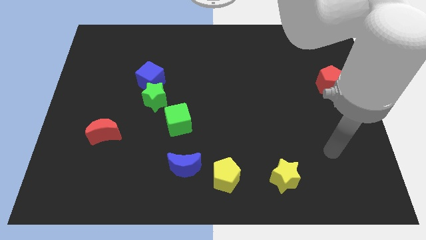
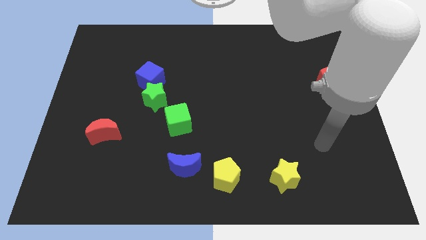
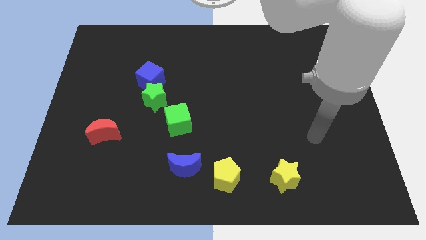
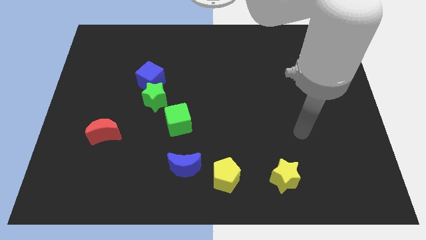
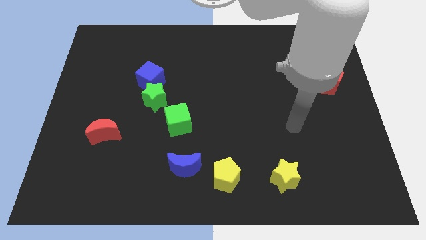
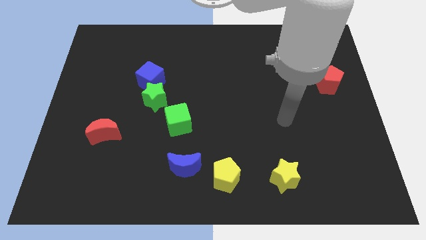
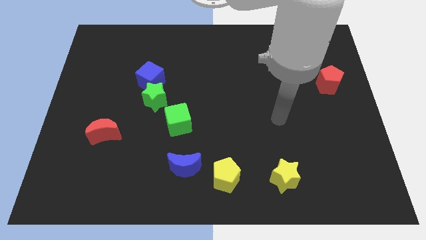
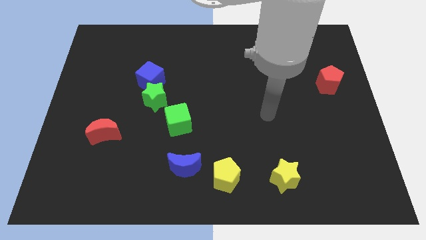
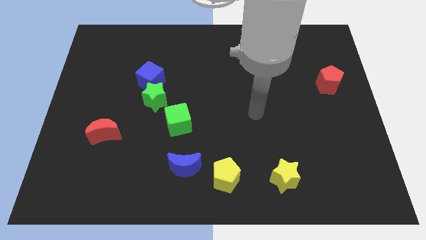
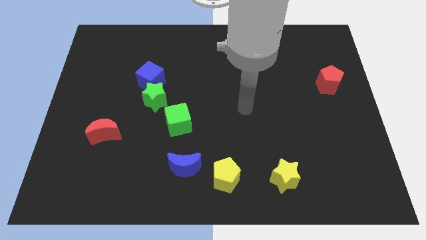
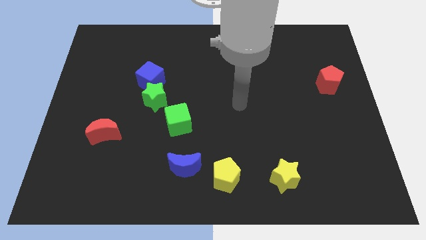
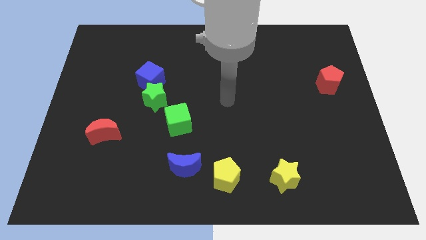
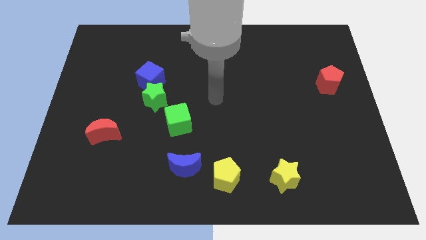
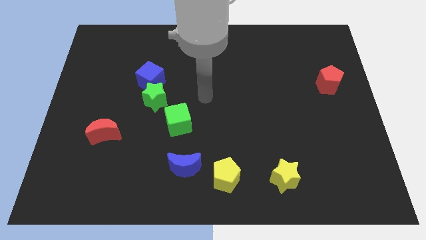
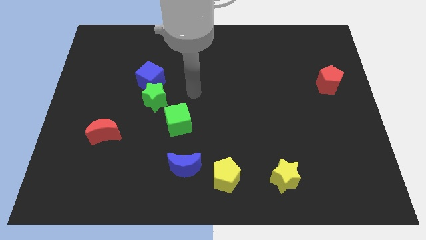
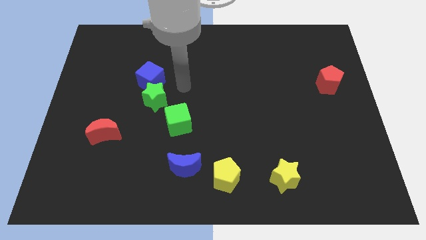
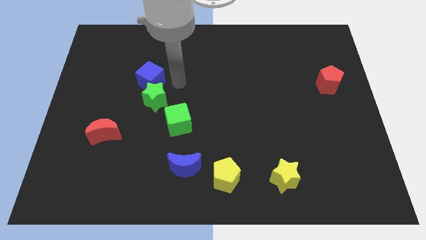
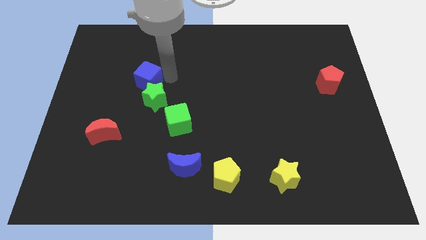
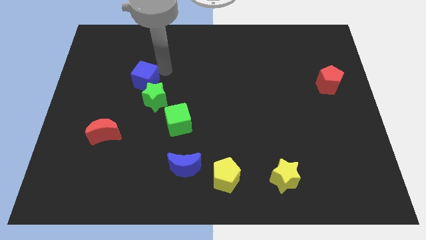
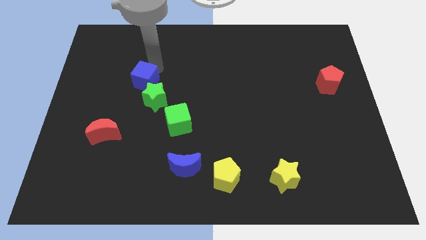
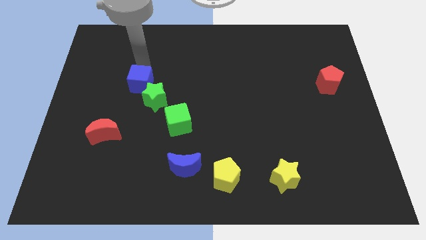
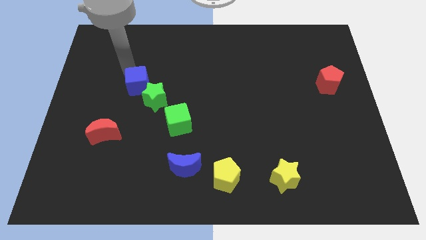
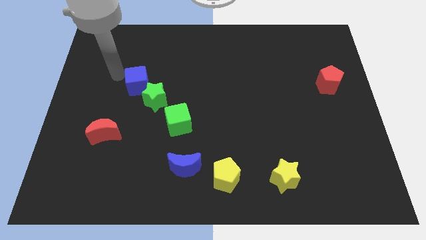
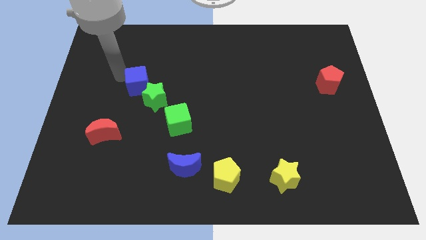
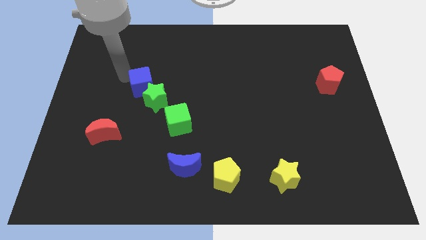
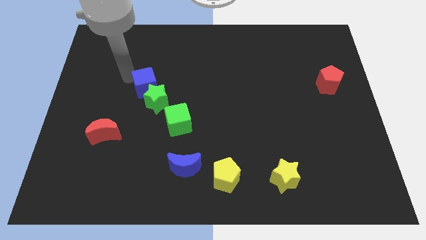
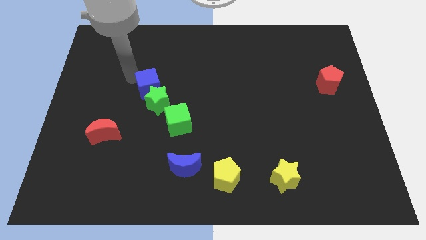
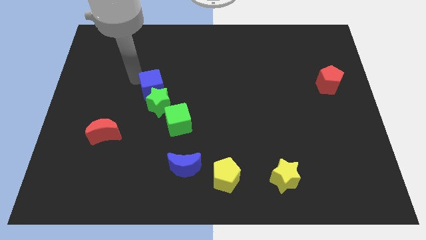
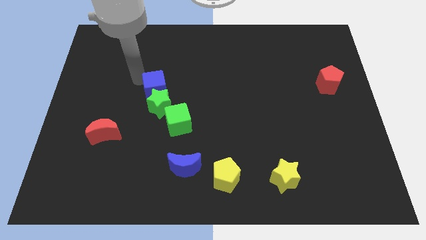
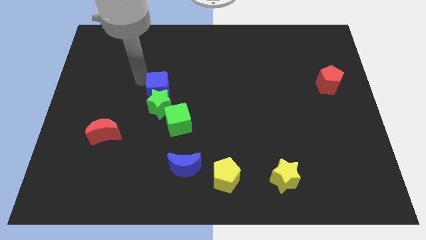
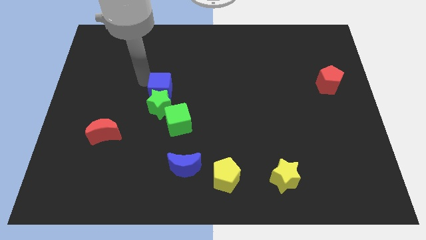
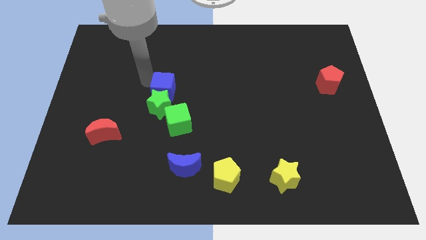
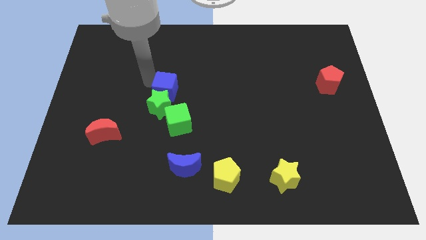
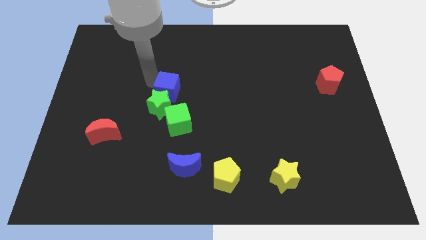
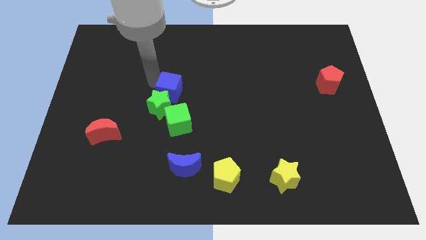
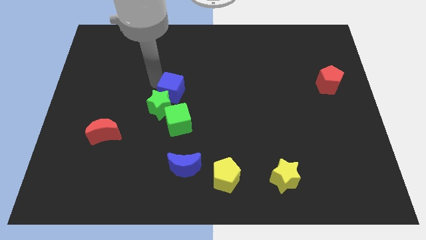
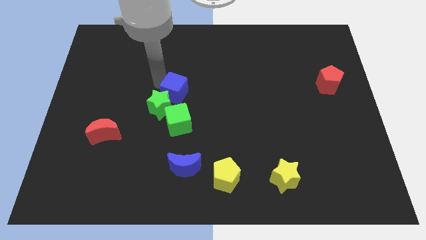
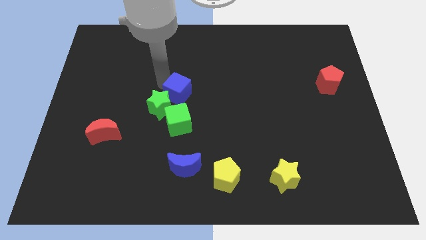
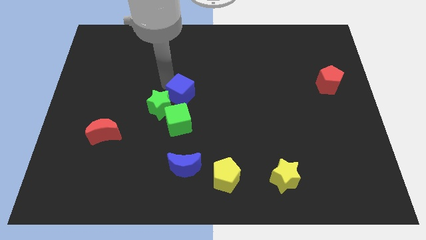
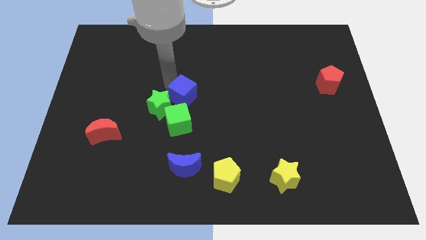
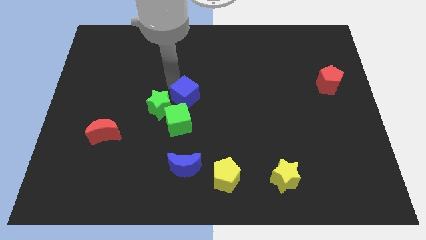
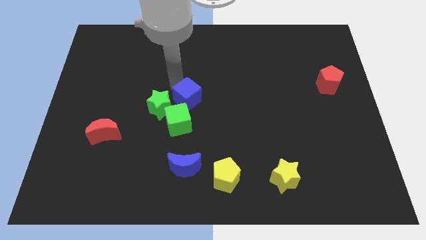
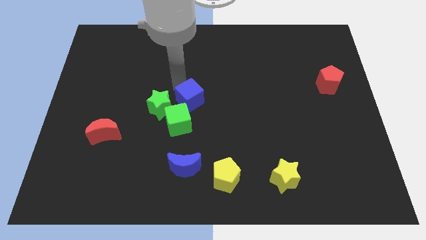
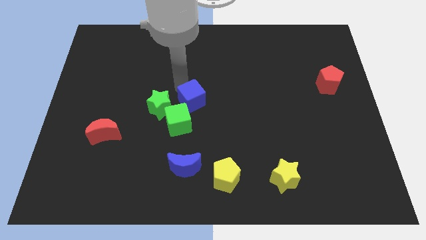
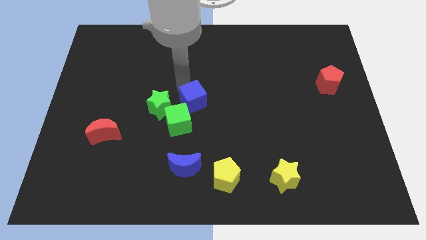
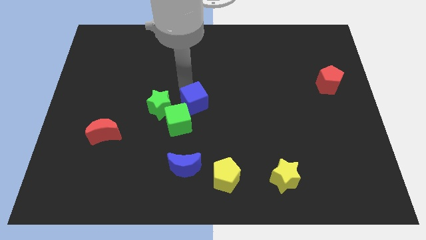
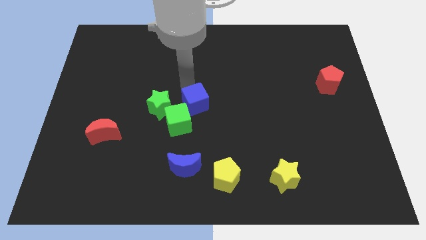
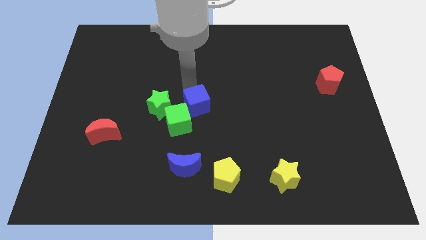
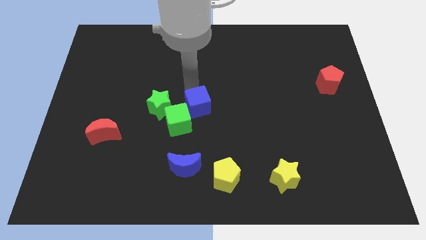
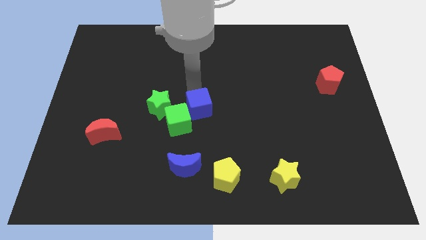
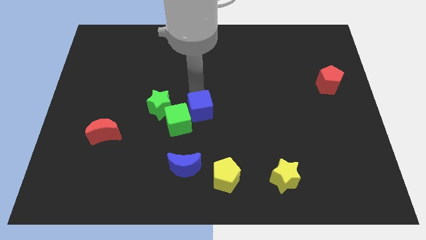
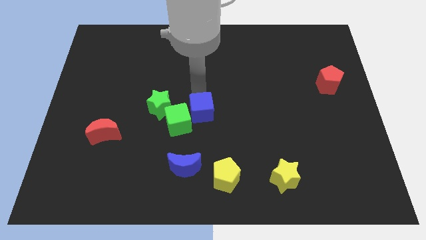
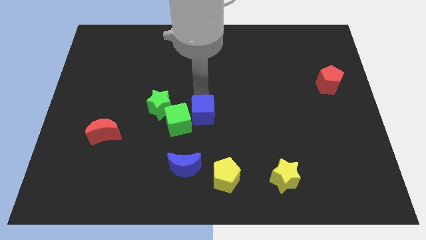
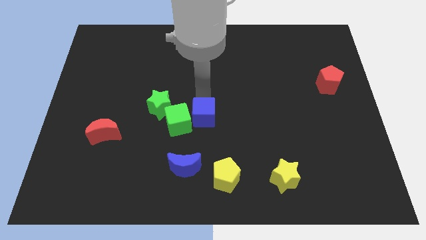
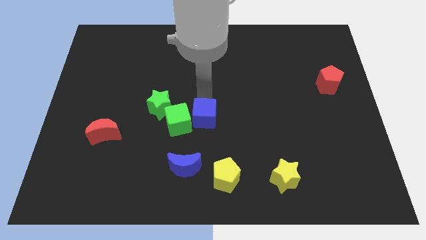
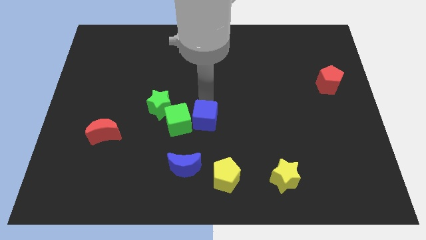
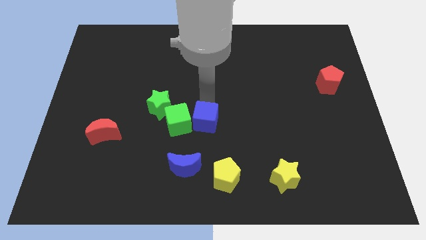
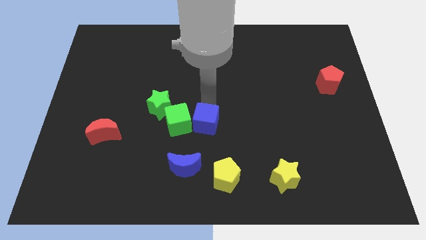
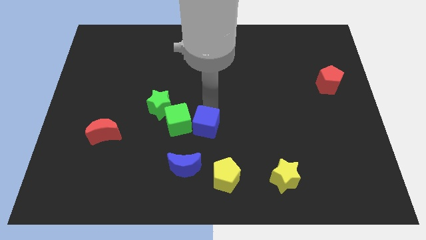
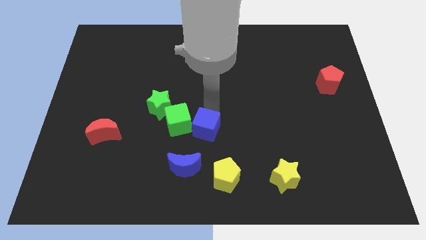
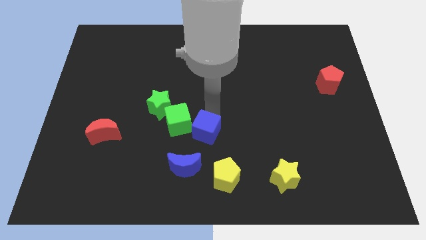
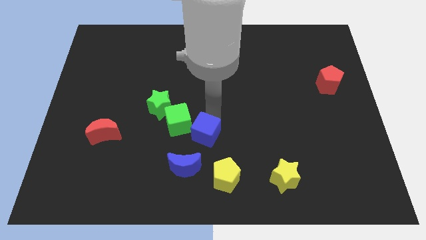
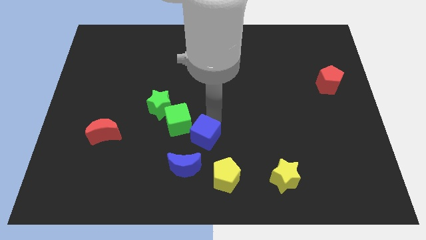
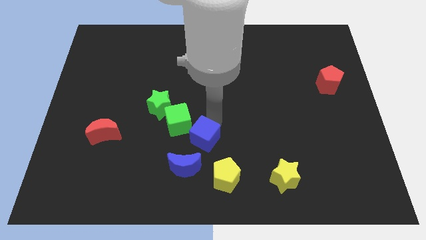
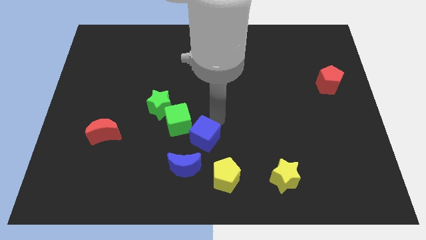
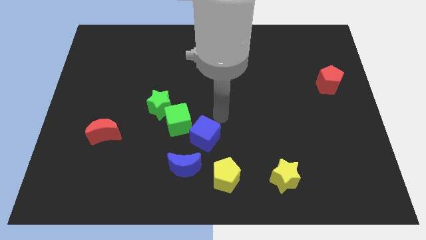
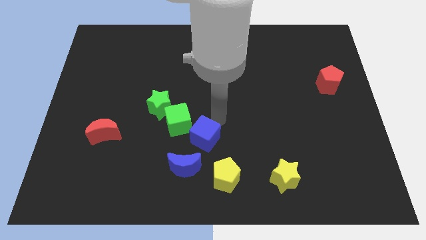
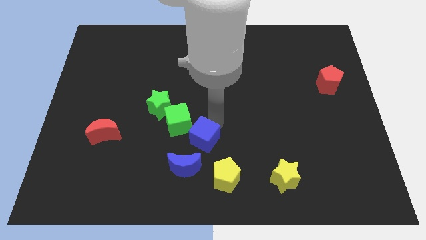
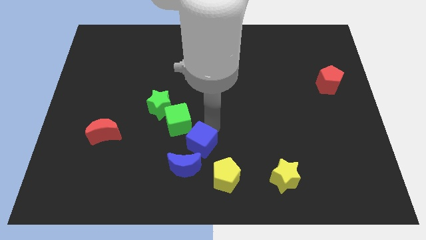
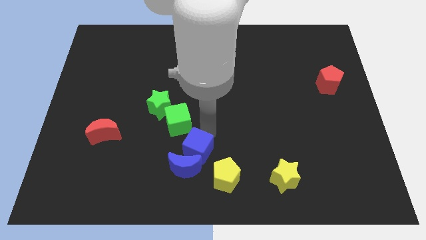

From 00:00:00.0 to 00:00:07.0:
push the blue cube towards the blue moon

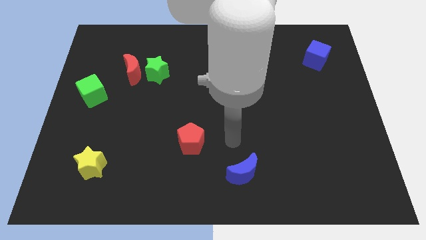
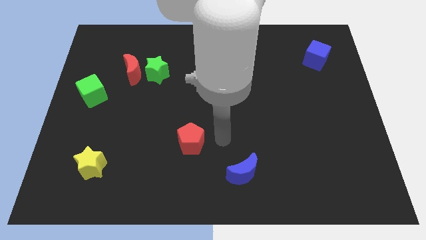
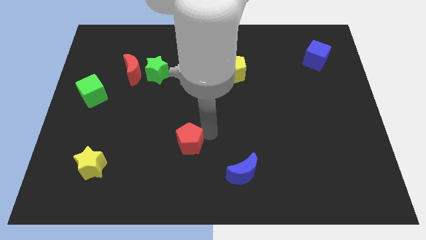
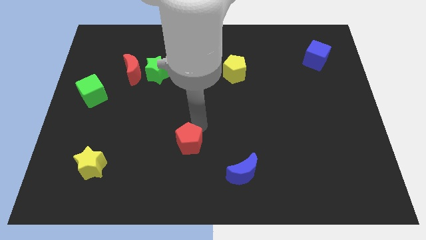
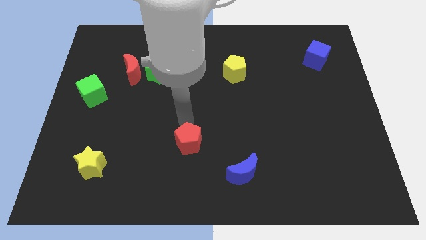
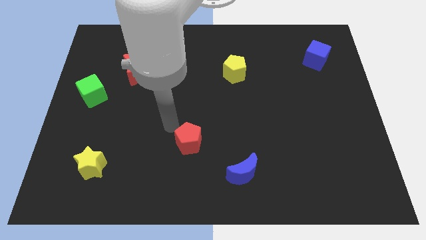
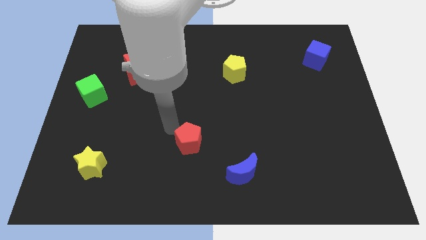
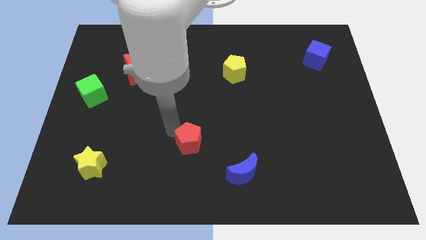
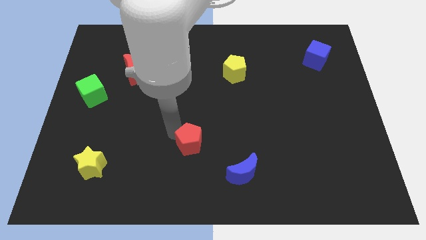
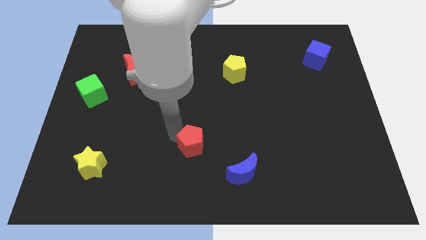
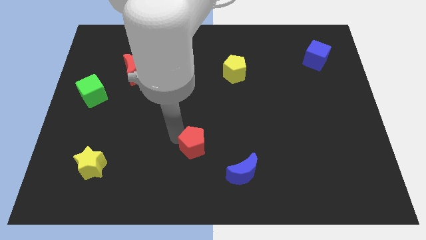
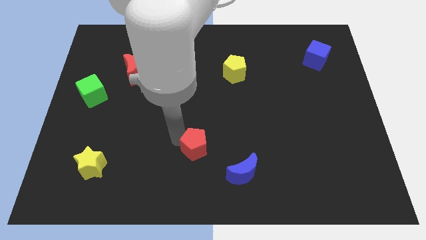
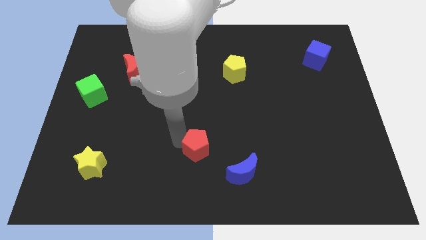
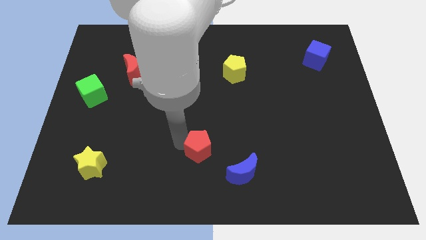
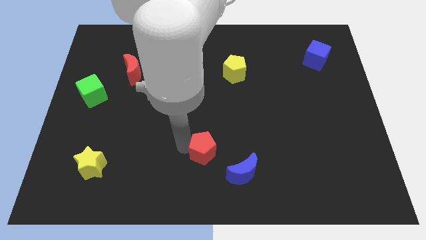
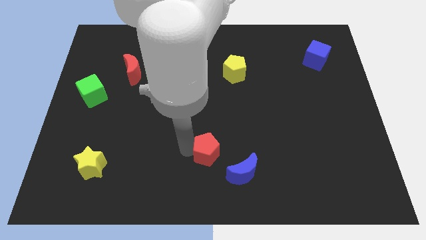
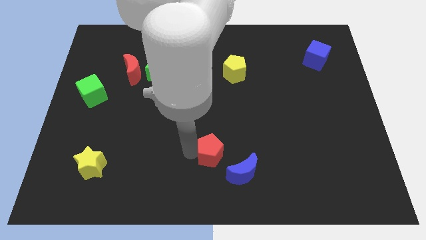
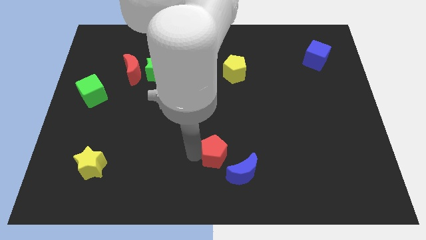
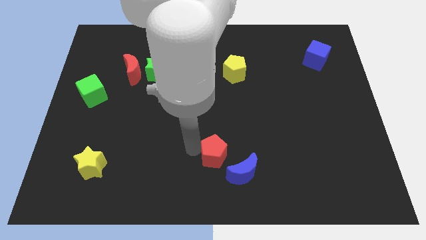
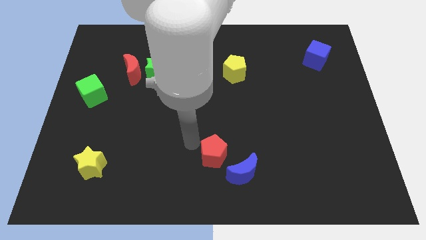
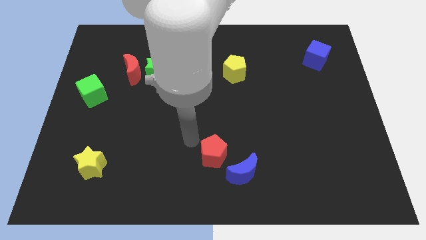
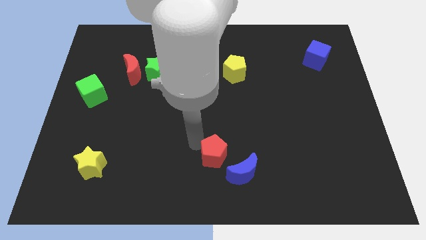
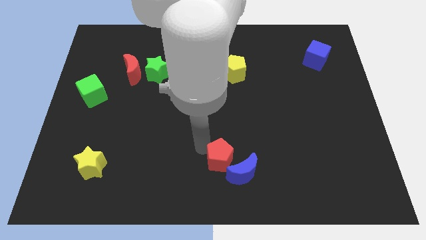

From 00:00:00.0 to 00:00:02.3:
slide the red pentagon close to the blue moon
